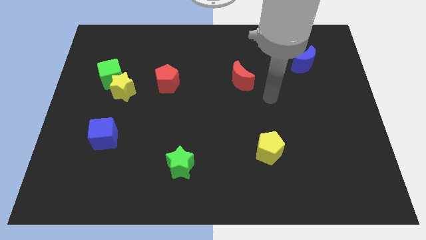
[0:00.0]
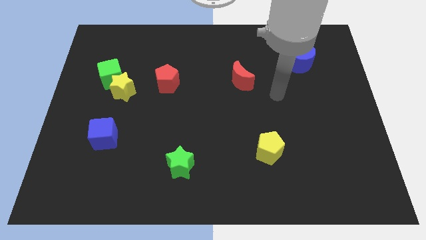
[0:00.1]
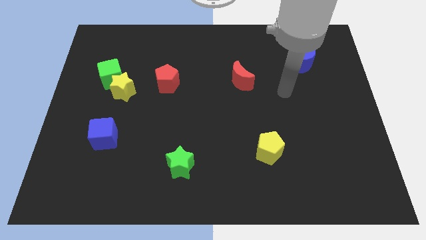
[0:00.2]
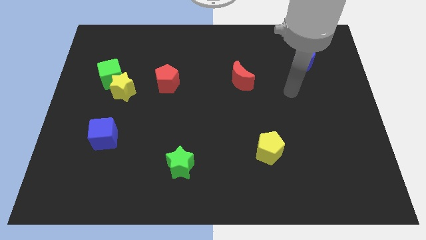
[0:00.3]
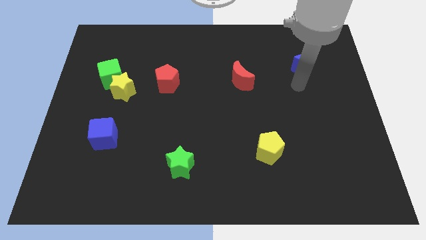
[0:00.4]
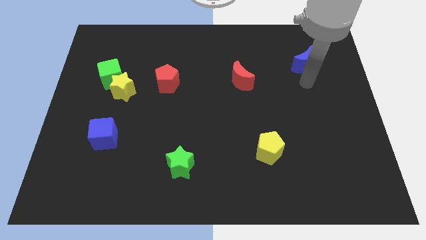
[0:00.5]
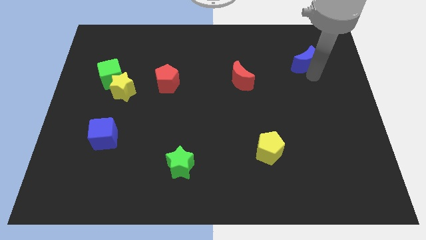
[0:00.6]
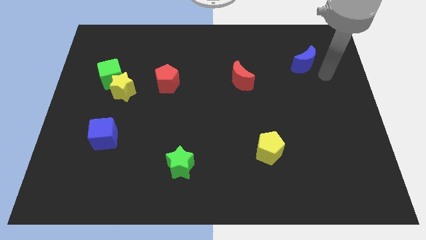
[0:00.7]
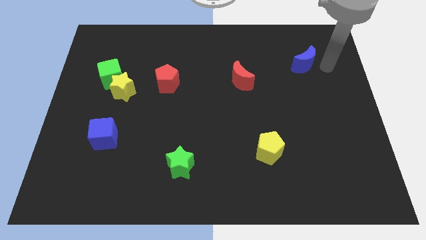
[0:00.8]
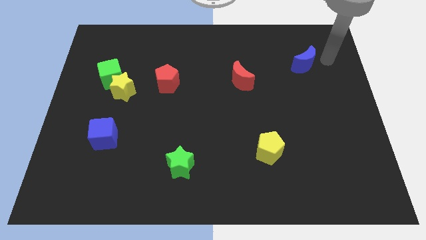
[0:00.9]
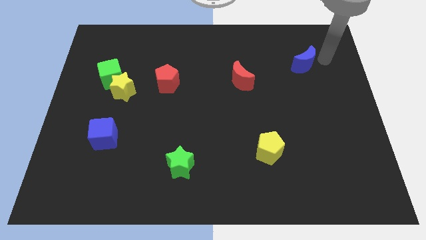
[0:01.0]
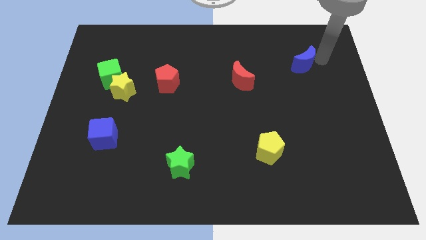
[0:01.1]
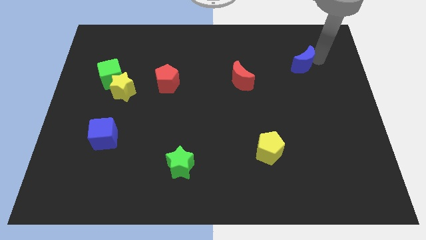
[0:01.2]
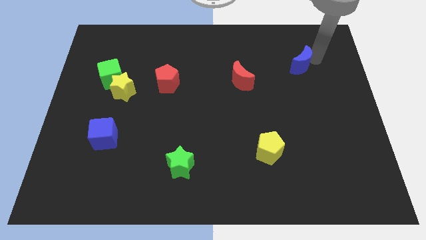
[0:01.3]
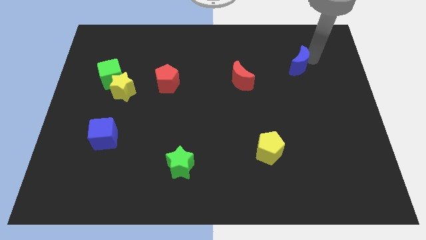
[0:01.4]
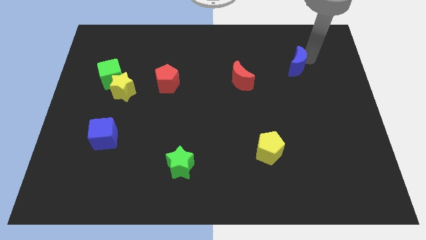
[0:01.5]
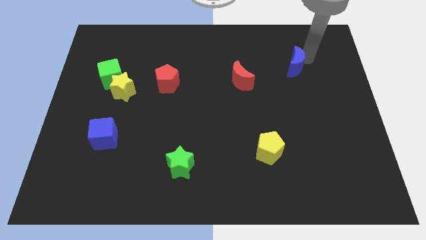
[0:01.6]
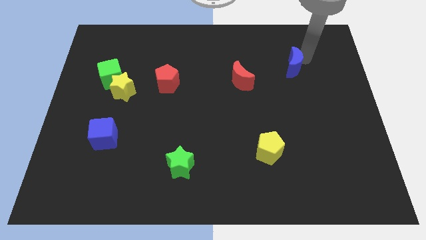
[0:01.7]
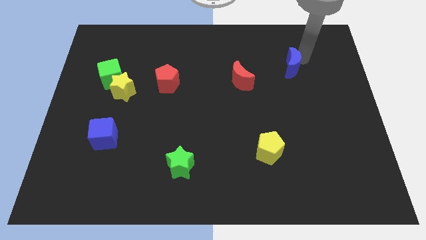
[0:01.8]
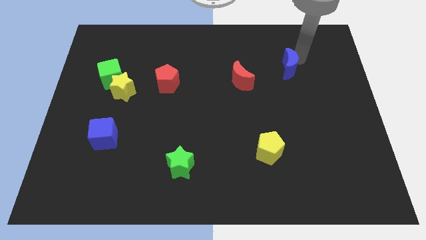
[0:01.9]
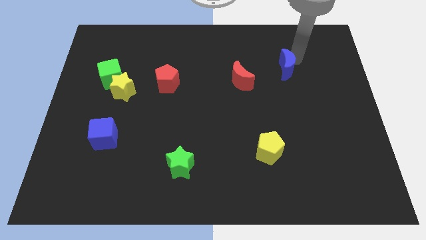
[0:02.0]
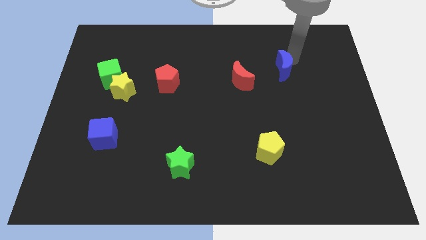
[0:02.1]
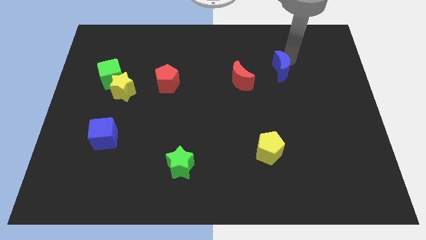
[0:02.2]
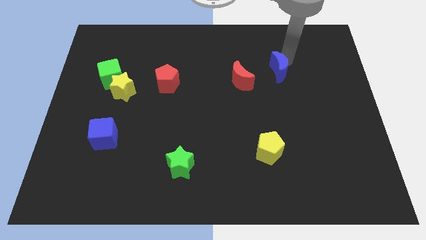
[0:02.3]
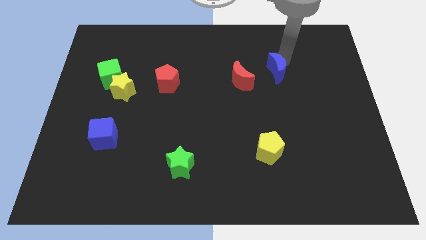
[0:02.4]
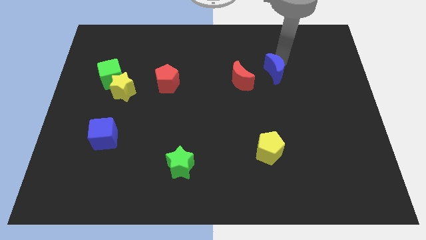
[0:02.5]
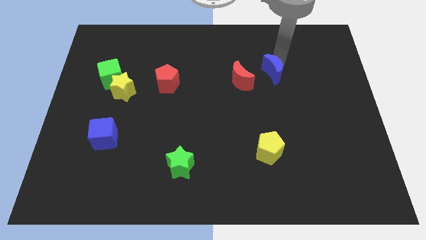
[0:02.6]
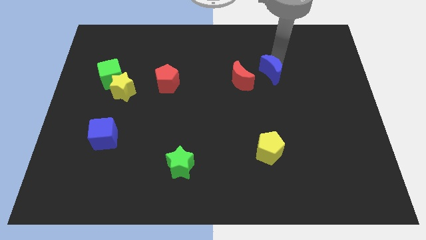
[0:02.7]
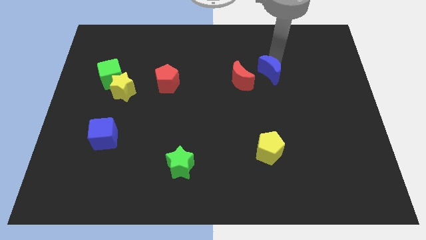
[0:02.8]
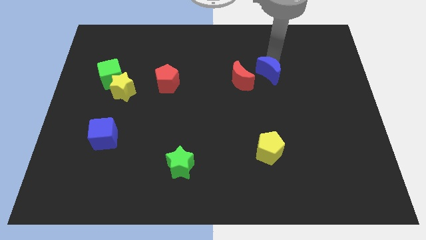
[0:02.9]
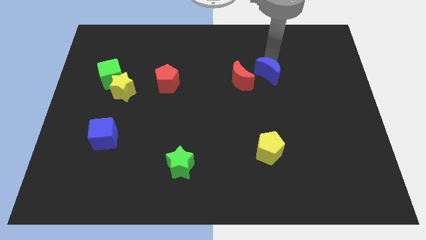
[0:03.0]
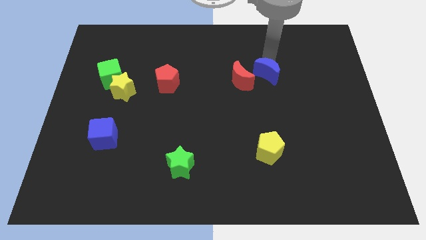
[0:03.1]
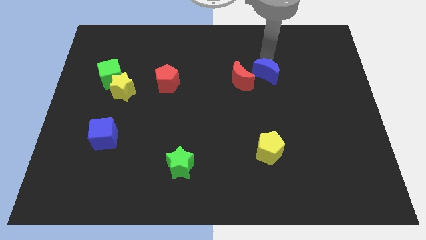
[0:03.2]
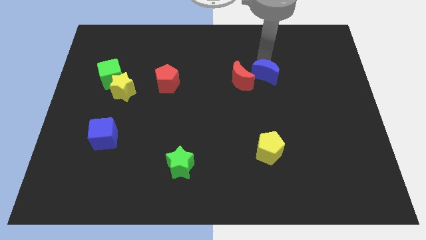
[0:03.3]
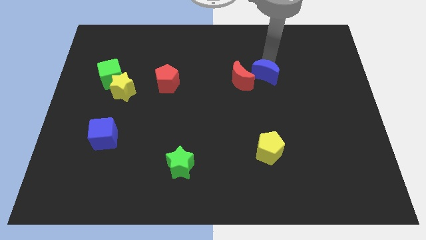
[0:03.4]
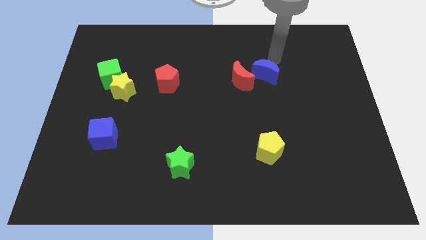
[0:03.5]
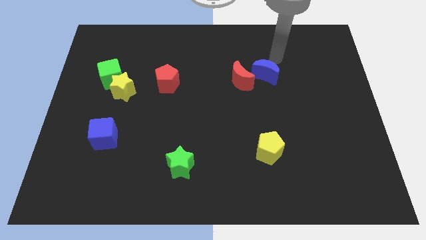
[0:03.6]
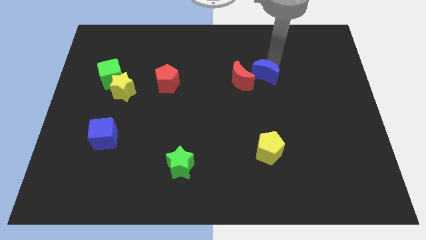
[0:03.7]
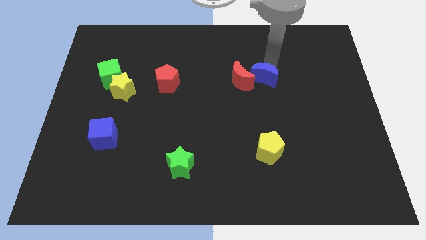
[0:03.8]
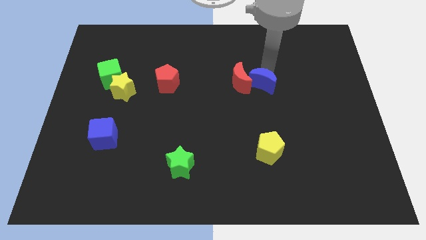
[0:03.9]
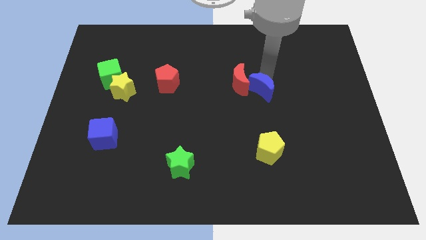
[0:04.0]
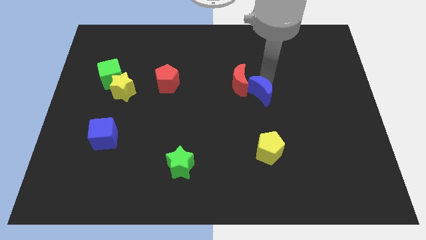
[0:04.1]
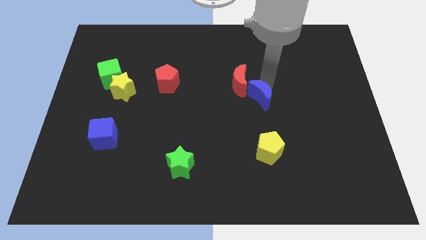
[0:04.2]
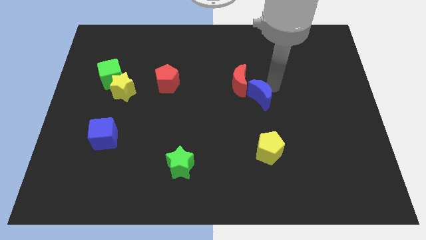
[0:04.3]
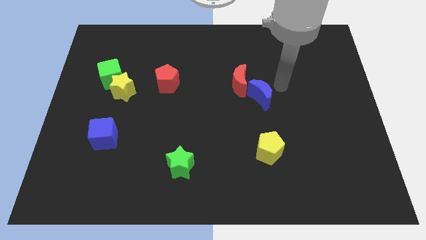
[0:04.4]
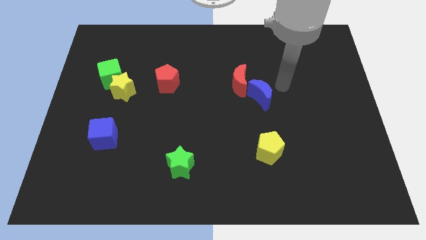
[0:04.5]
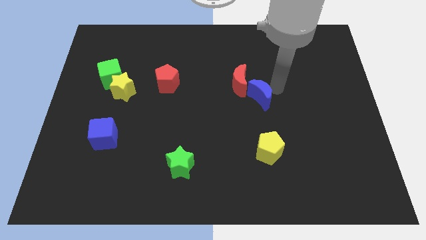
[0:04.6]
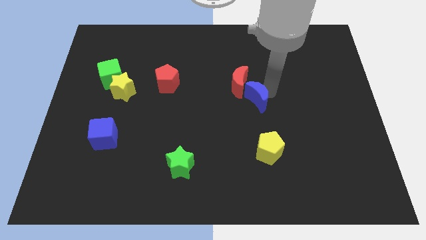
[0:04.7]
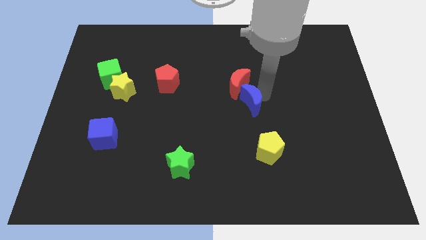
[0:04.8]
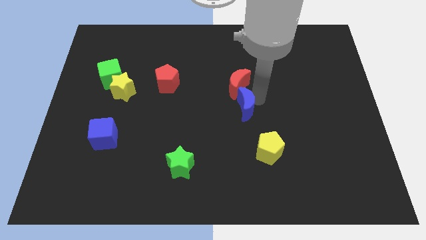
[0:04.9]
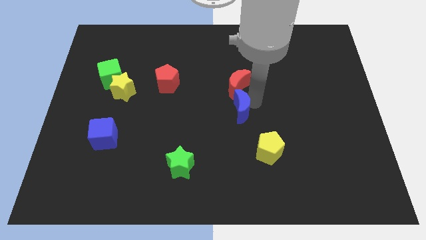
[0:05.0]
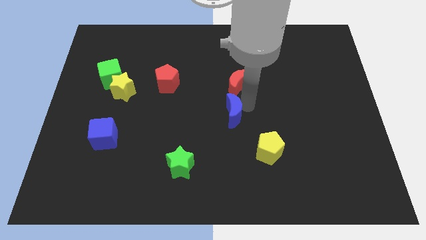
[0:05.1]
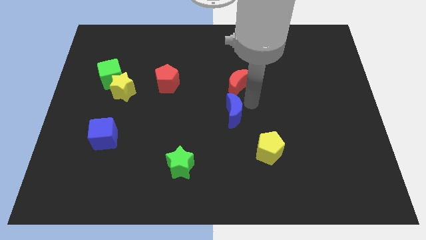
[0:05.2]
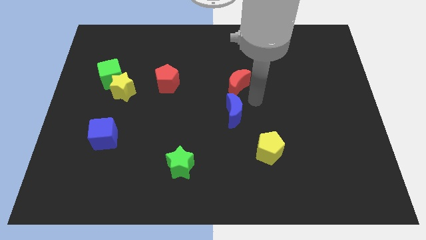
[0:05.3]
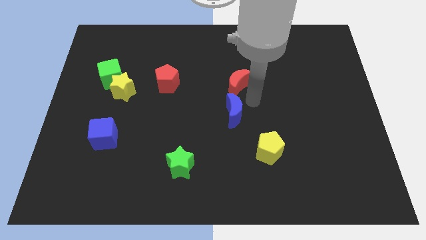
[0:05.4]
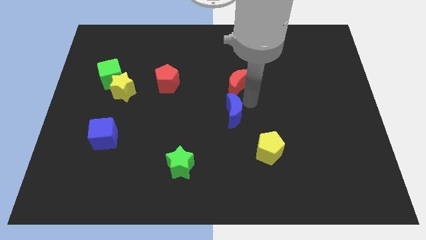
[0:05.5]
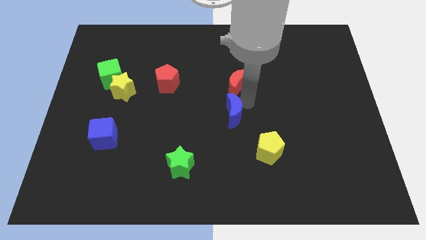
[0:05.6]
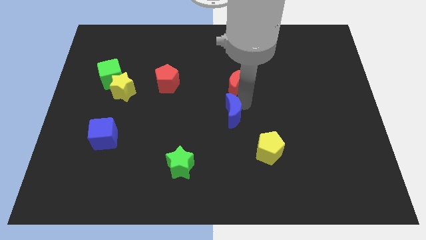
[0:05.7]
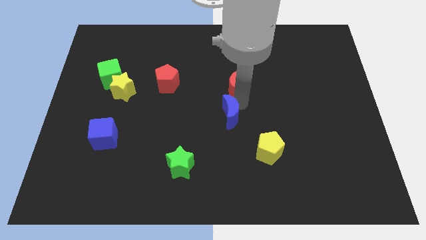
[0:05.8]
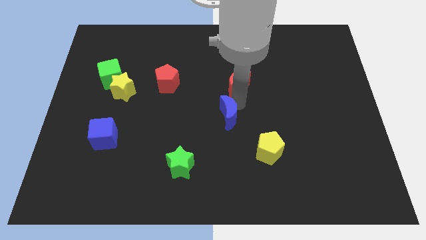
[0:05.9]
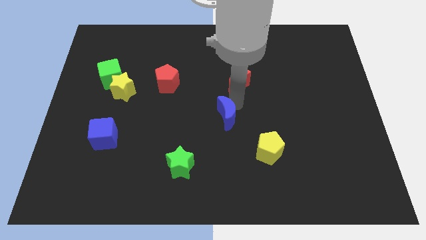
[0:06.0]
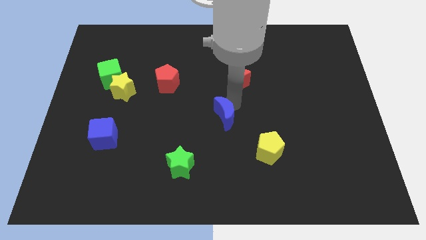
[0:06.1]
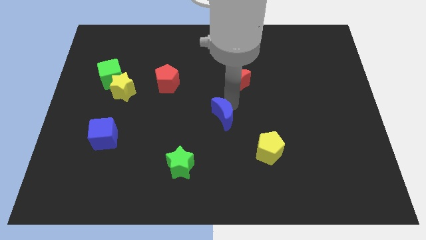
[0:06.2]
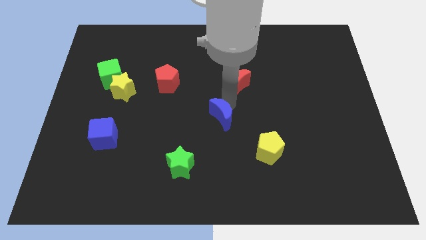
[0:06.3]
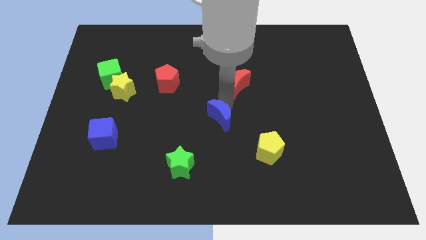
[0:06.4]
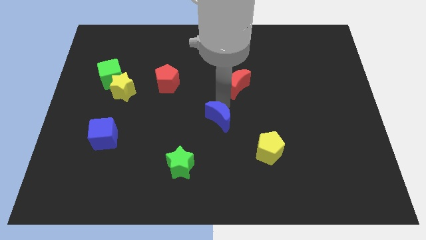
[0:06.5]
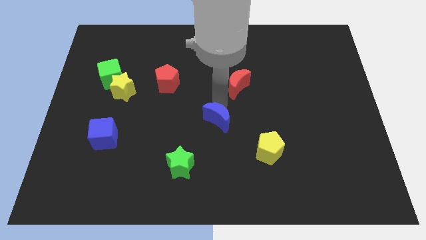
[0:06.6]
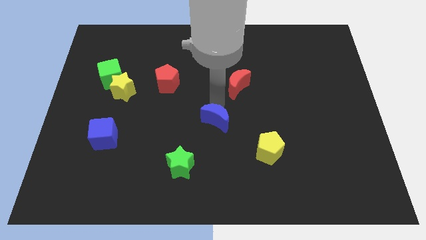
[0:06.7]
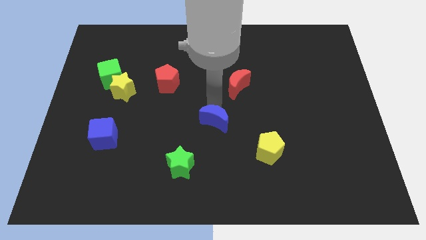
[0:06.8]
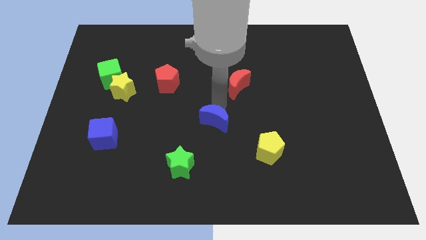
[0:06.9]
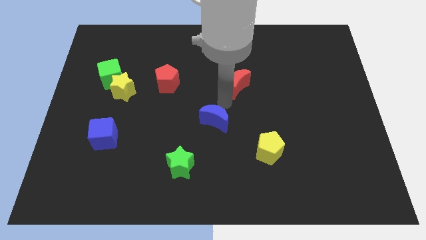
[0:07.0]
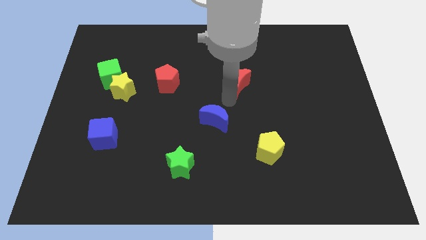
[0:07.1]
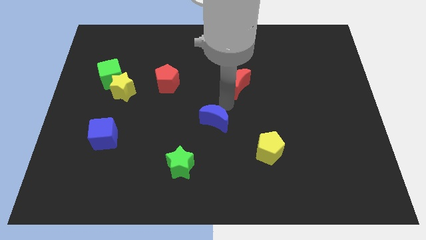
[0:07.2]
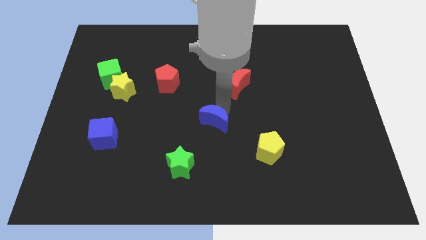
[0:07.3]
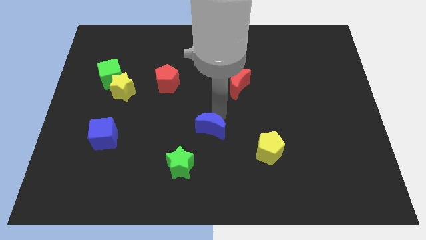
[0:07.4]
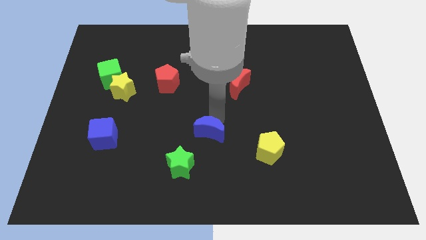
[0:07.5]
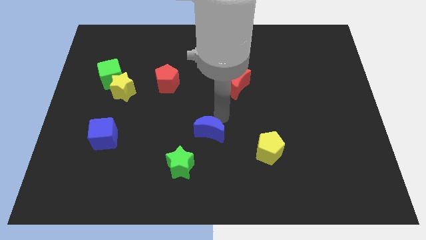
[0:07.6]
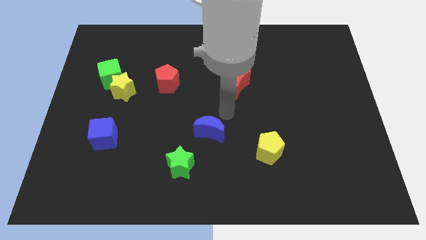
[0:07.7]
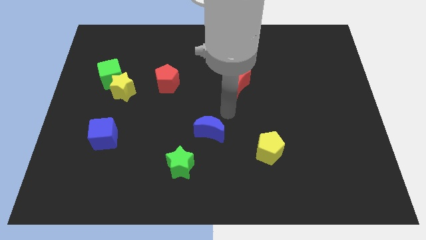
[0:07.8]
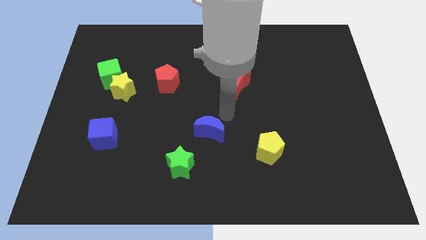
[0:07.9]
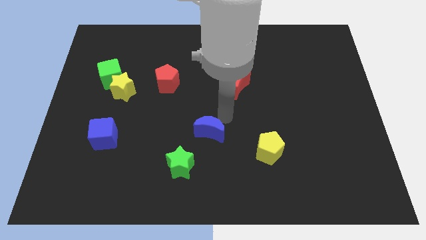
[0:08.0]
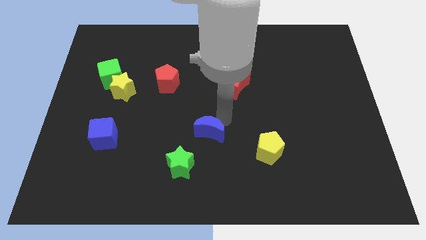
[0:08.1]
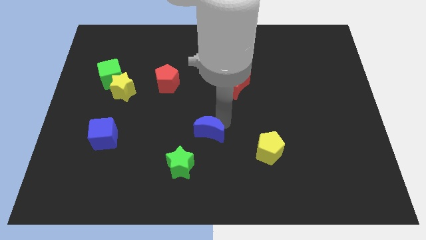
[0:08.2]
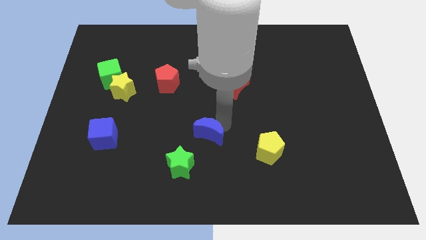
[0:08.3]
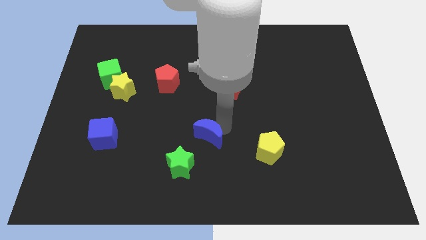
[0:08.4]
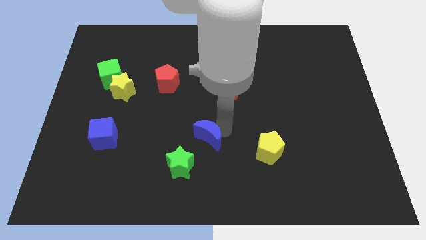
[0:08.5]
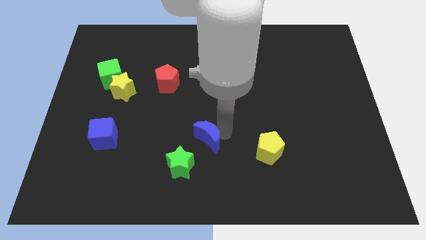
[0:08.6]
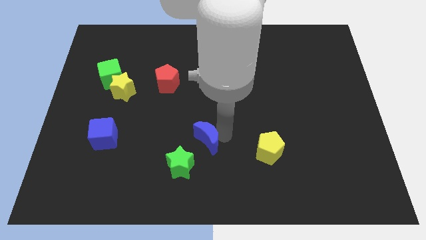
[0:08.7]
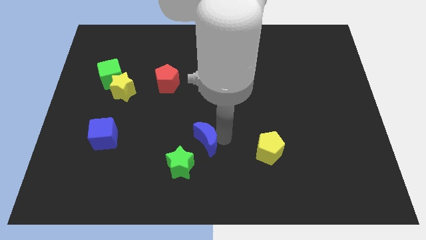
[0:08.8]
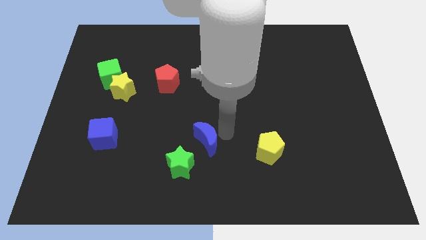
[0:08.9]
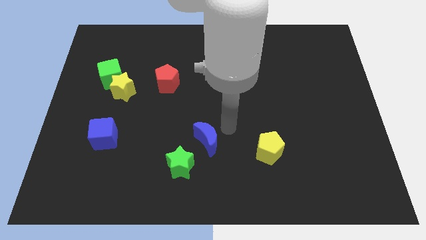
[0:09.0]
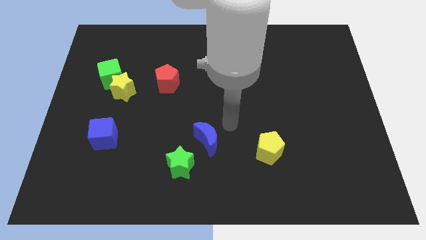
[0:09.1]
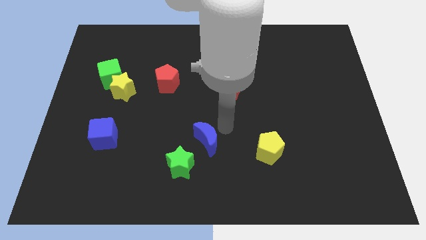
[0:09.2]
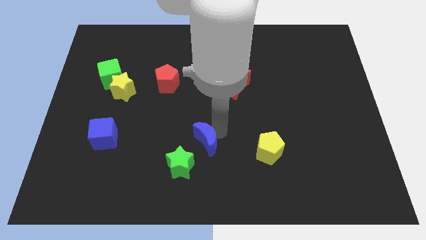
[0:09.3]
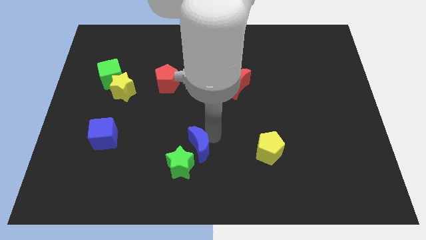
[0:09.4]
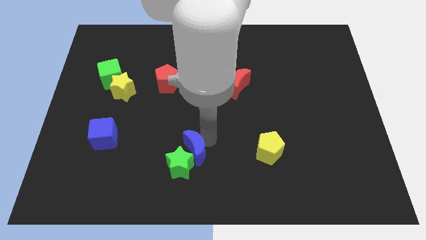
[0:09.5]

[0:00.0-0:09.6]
push the blue moon to the green star
